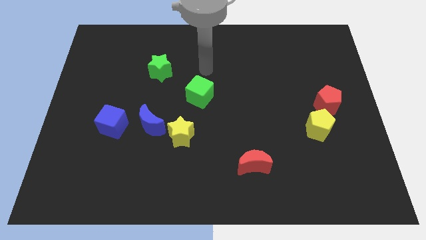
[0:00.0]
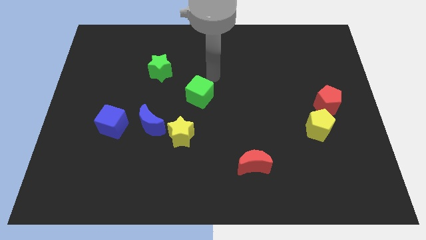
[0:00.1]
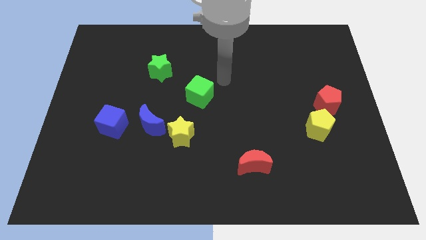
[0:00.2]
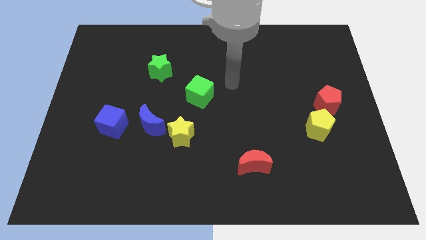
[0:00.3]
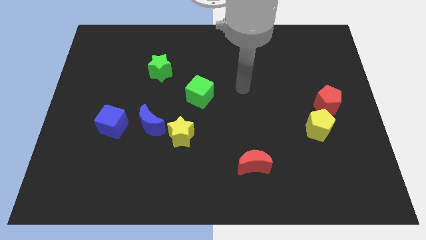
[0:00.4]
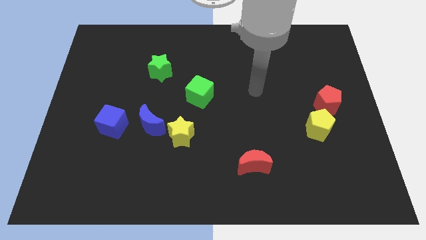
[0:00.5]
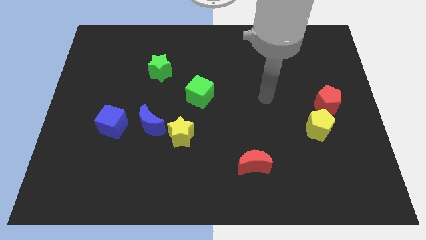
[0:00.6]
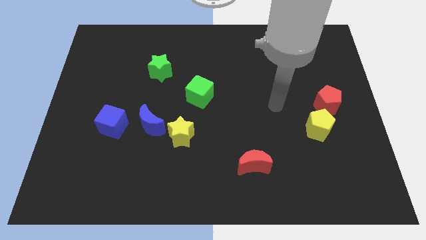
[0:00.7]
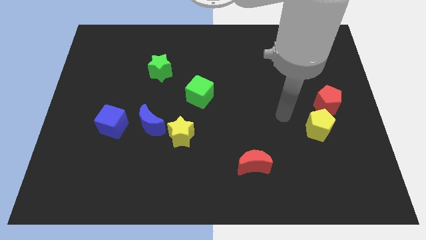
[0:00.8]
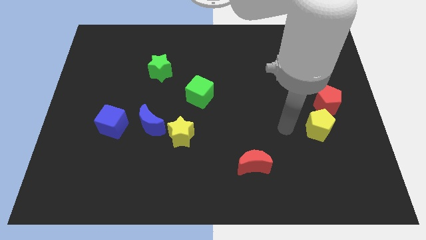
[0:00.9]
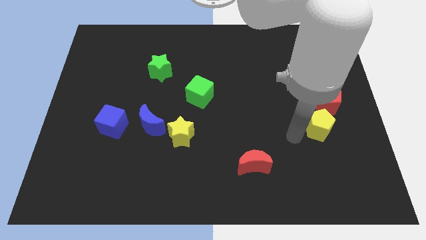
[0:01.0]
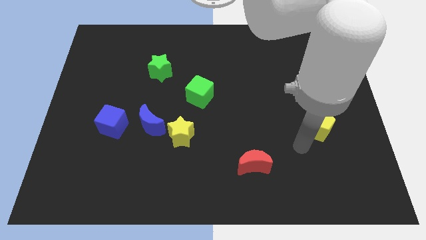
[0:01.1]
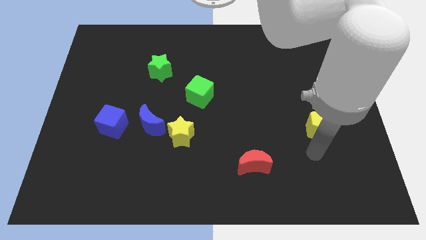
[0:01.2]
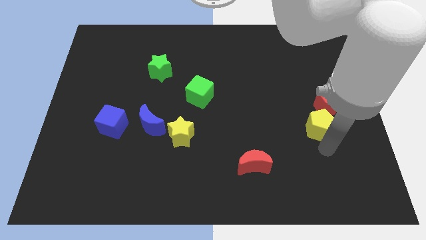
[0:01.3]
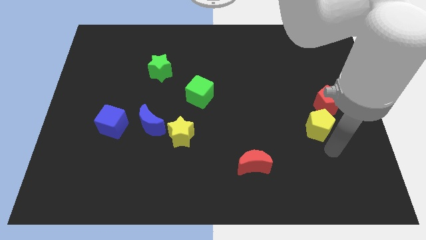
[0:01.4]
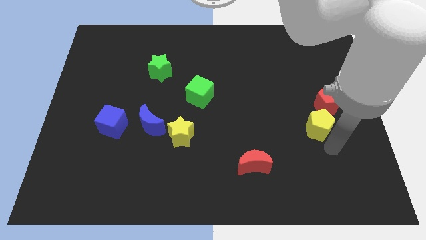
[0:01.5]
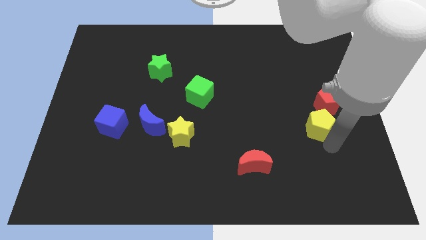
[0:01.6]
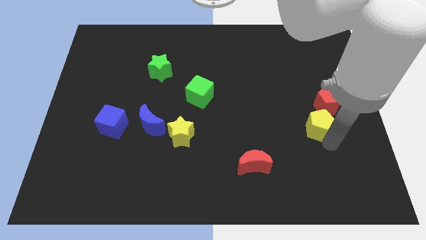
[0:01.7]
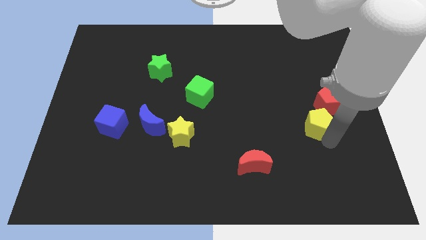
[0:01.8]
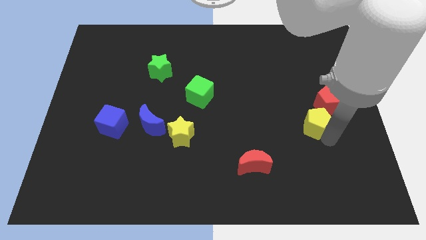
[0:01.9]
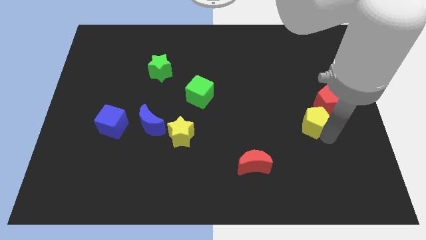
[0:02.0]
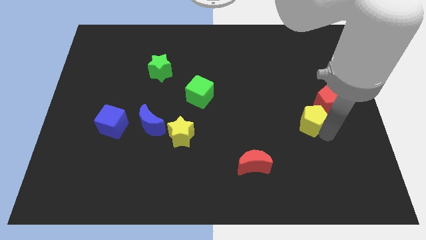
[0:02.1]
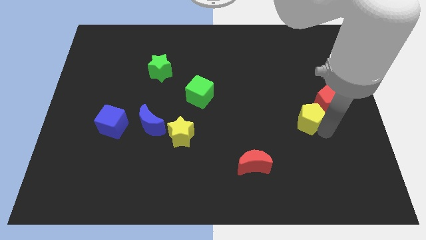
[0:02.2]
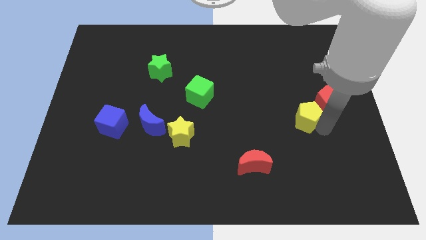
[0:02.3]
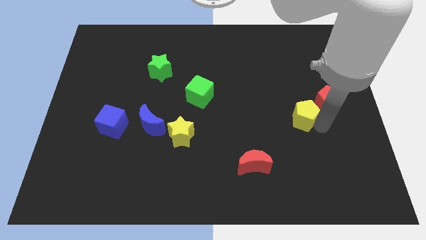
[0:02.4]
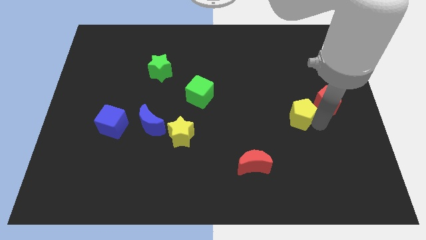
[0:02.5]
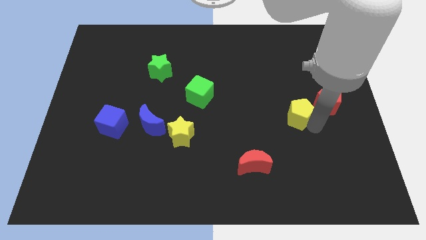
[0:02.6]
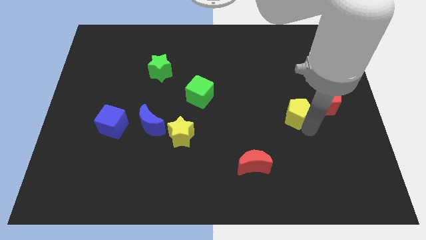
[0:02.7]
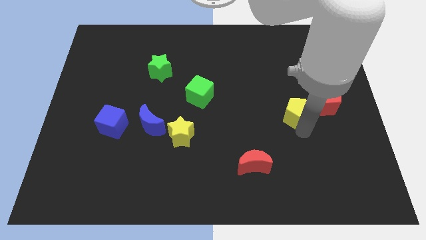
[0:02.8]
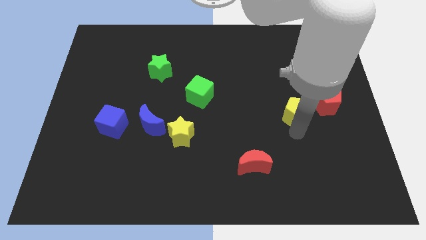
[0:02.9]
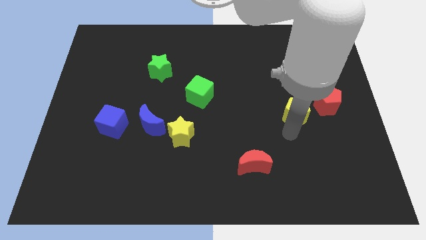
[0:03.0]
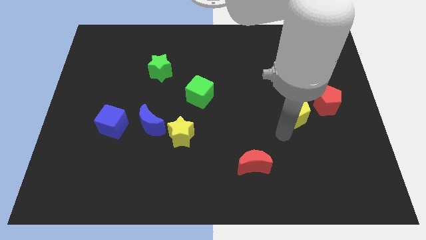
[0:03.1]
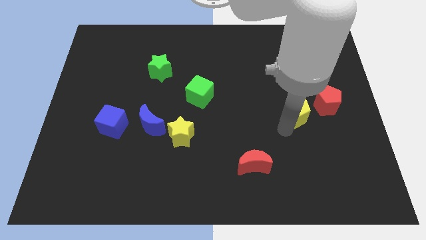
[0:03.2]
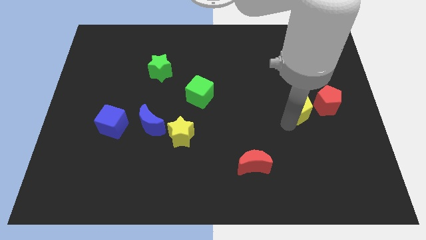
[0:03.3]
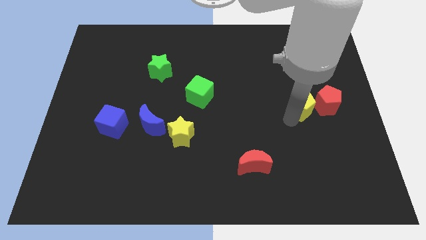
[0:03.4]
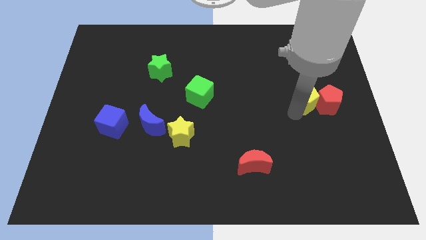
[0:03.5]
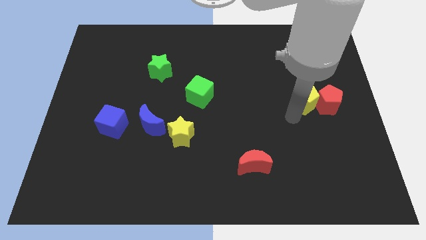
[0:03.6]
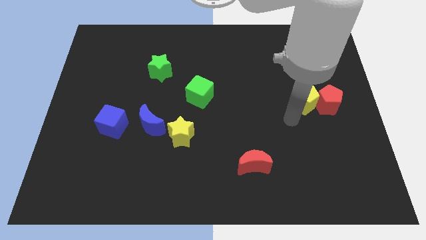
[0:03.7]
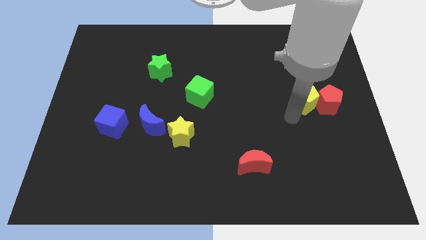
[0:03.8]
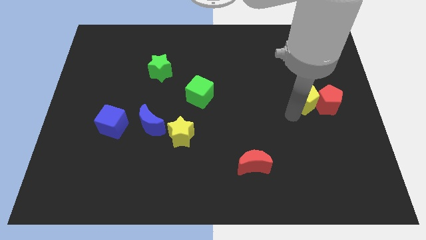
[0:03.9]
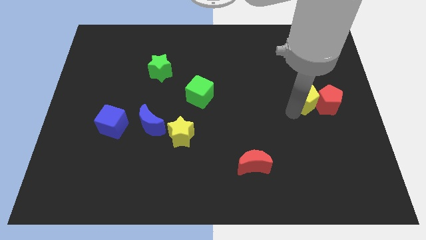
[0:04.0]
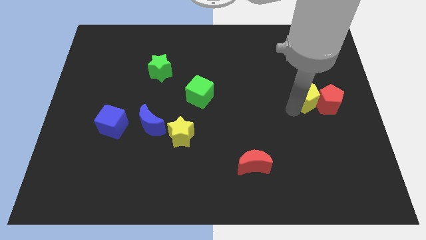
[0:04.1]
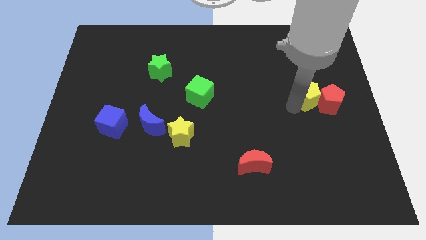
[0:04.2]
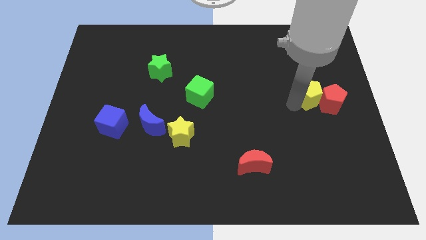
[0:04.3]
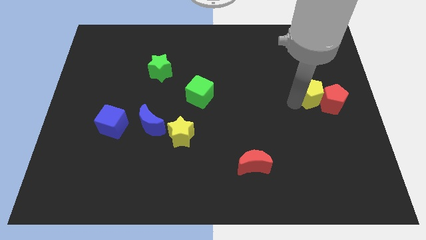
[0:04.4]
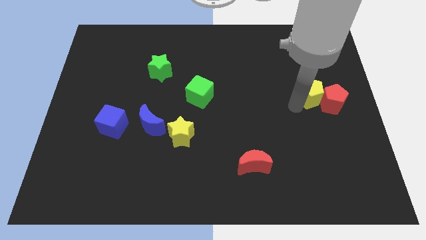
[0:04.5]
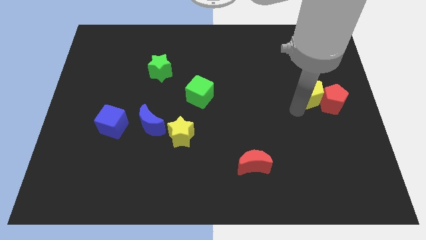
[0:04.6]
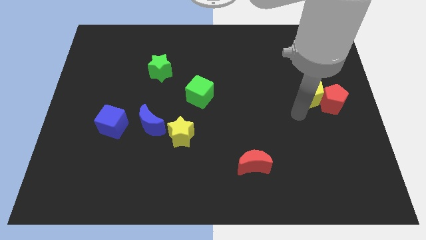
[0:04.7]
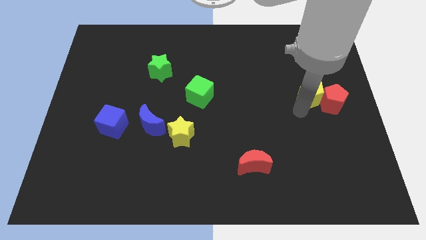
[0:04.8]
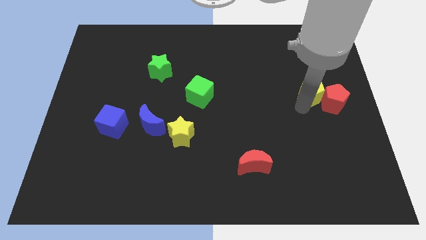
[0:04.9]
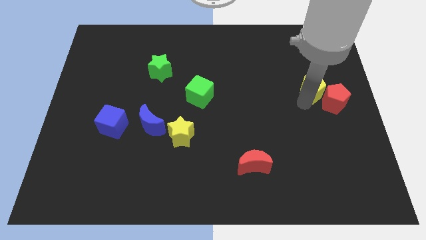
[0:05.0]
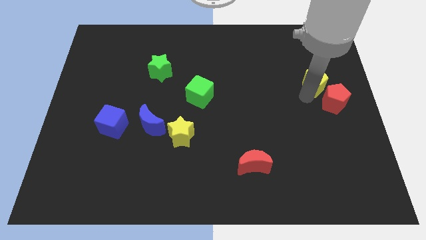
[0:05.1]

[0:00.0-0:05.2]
move the yellow pentagon above the red pentagon

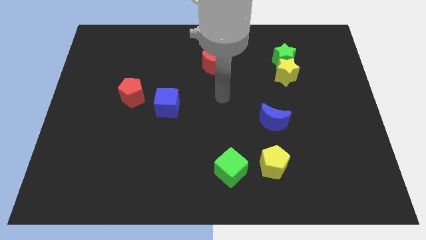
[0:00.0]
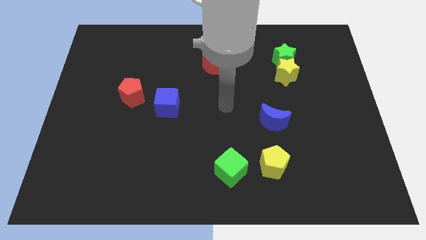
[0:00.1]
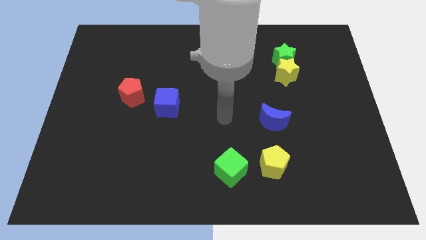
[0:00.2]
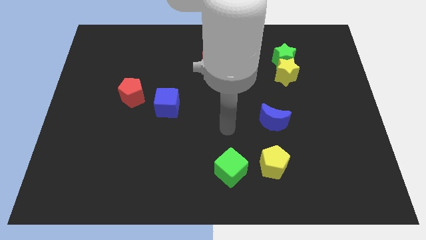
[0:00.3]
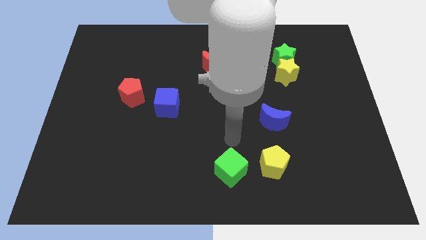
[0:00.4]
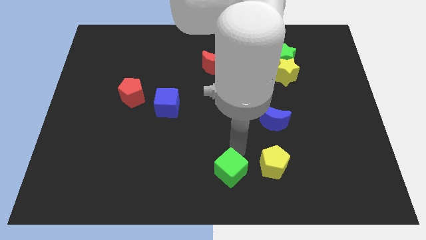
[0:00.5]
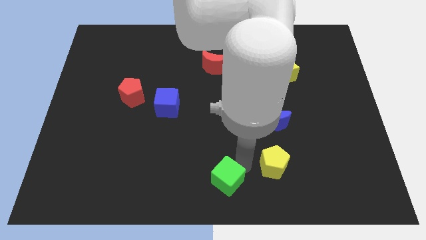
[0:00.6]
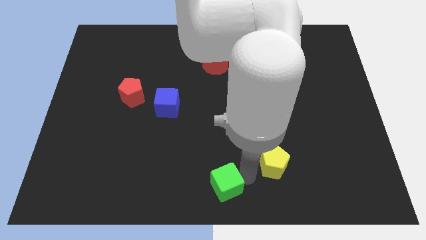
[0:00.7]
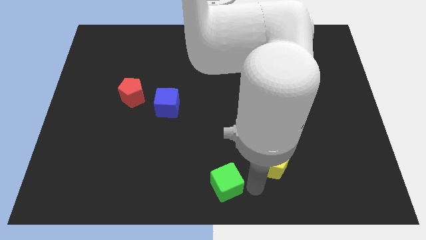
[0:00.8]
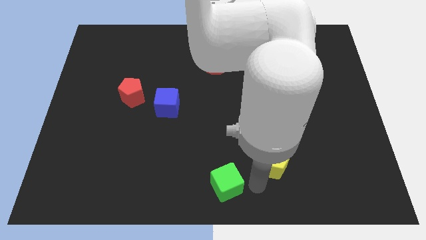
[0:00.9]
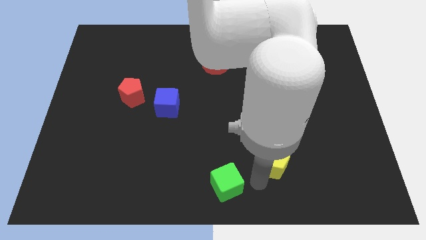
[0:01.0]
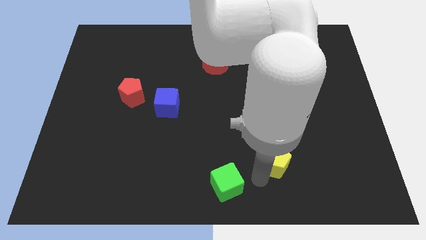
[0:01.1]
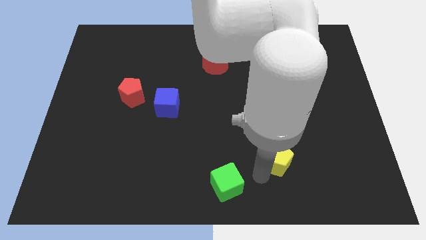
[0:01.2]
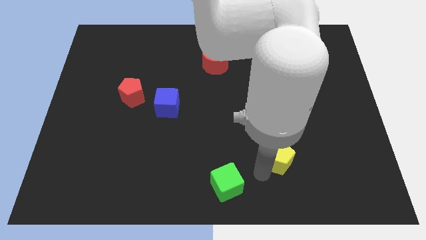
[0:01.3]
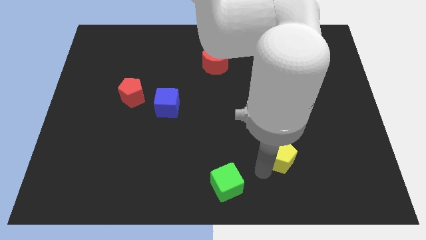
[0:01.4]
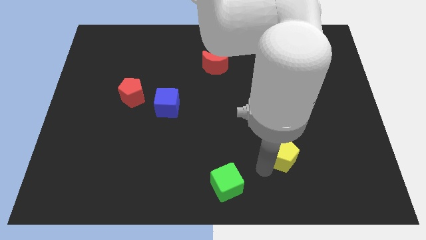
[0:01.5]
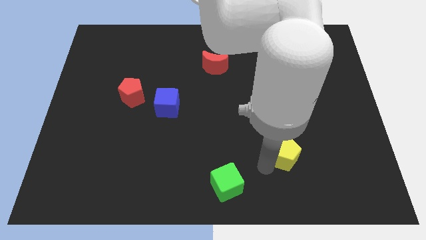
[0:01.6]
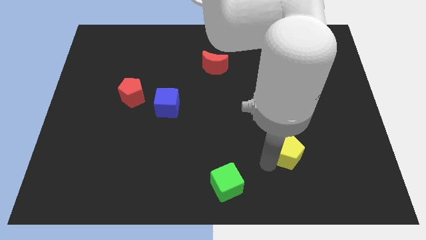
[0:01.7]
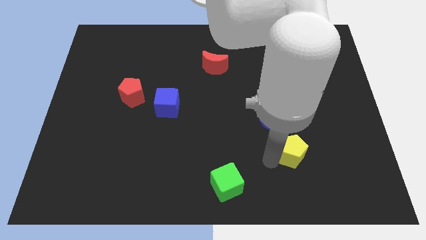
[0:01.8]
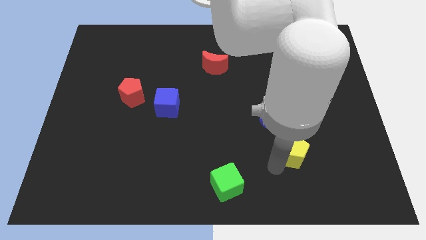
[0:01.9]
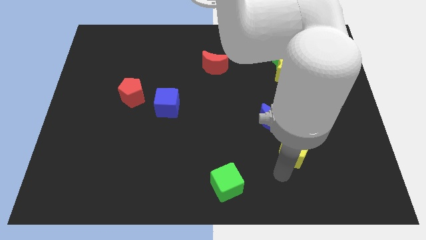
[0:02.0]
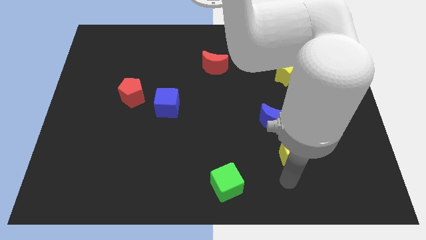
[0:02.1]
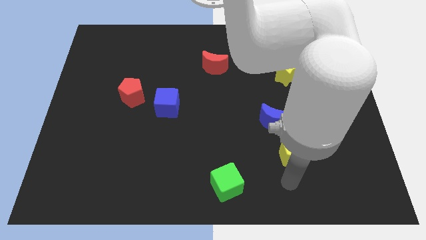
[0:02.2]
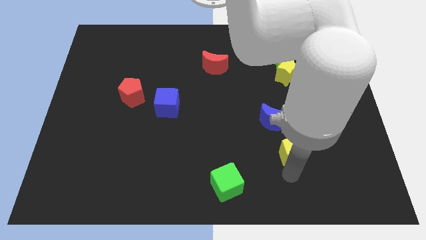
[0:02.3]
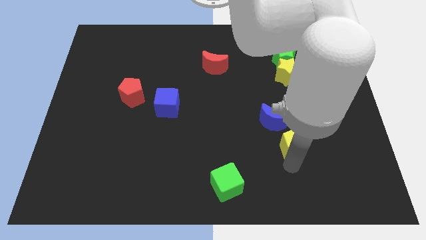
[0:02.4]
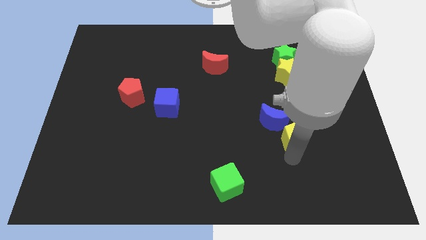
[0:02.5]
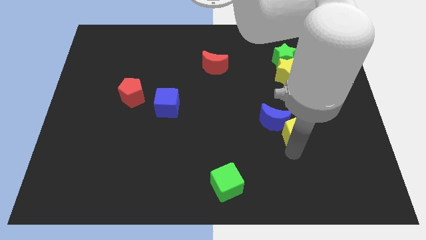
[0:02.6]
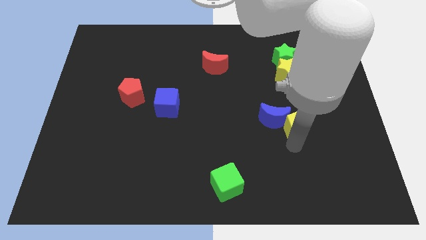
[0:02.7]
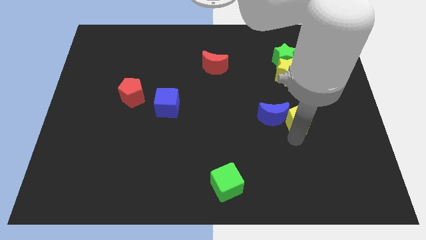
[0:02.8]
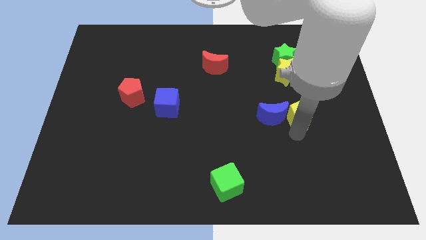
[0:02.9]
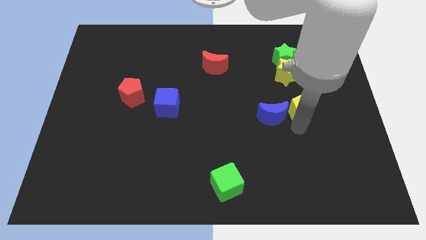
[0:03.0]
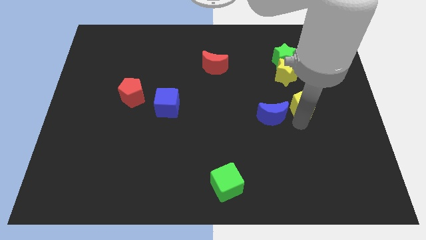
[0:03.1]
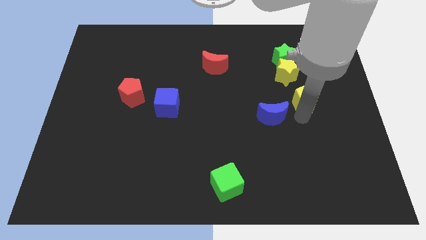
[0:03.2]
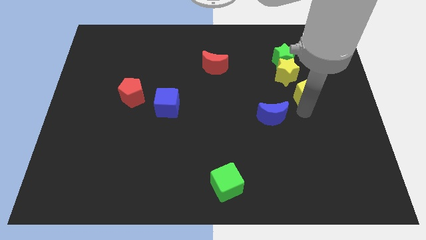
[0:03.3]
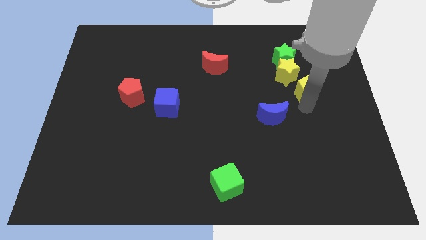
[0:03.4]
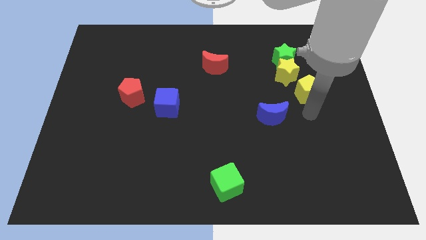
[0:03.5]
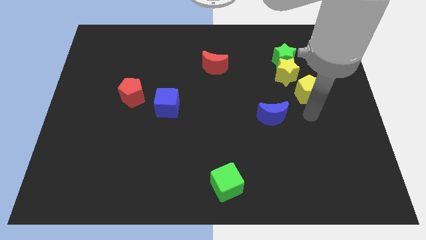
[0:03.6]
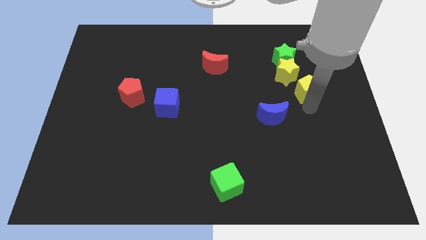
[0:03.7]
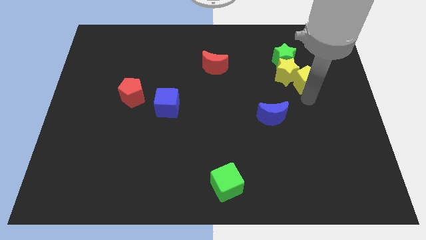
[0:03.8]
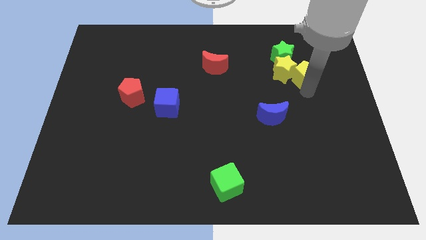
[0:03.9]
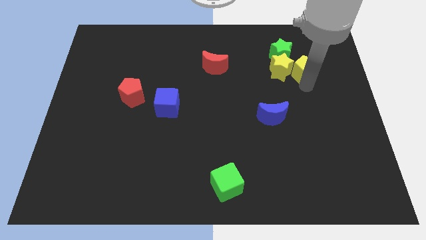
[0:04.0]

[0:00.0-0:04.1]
push the yellow pentagon to the top right side of the yellow star
